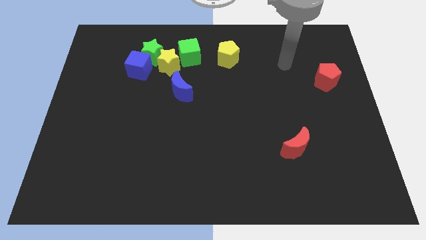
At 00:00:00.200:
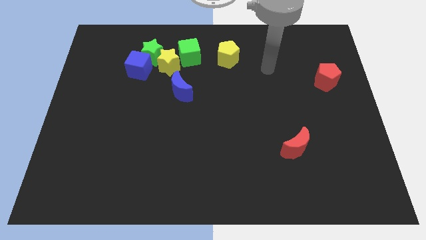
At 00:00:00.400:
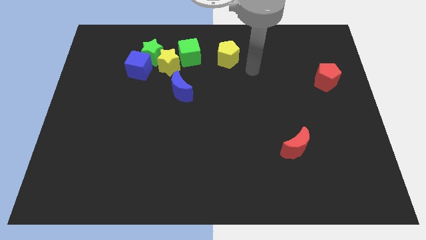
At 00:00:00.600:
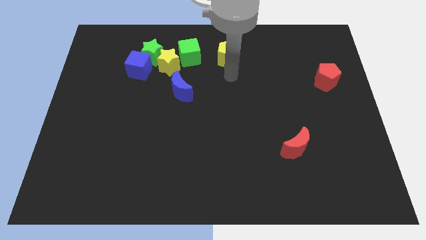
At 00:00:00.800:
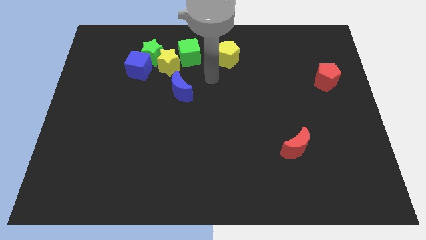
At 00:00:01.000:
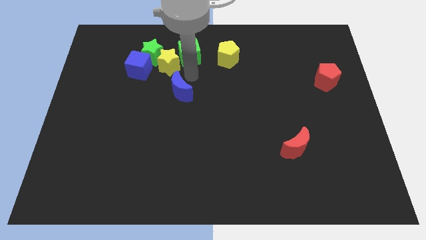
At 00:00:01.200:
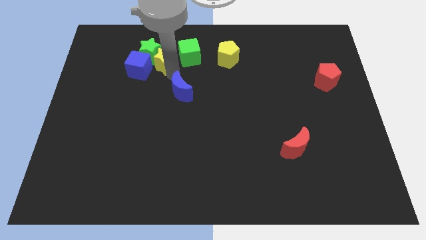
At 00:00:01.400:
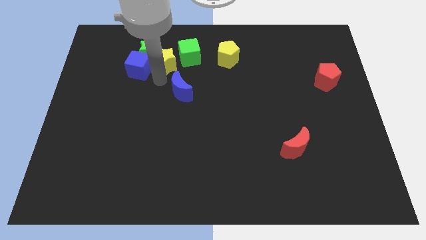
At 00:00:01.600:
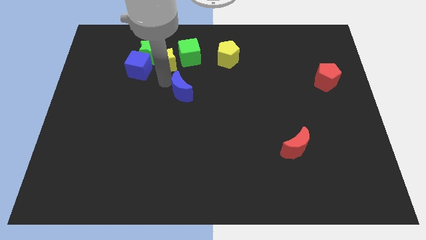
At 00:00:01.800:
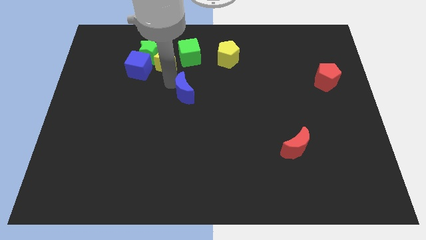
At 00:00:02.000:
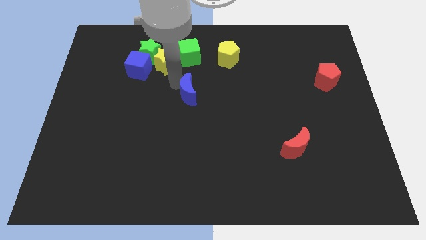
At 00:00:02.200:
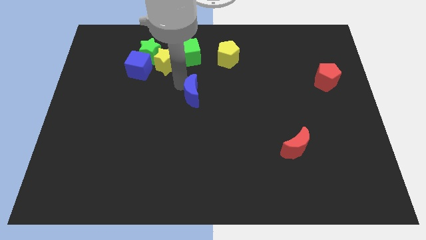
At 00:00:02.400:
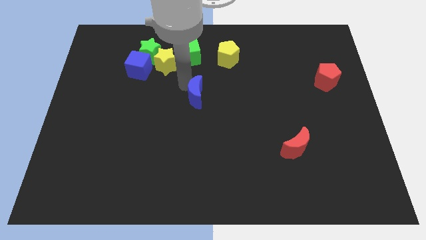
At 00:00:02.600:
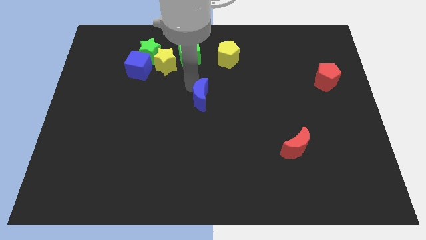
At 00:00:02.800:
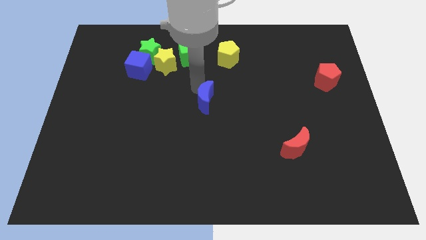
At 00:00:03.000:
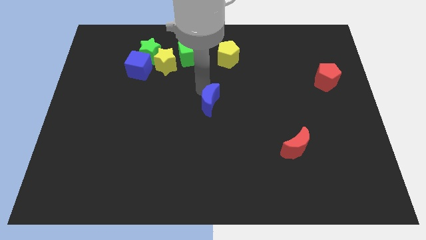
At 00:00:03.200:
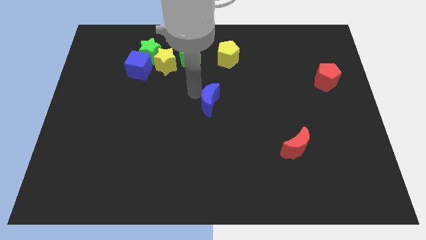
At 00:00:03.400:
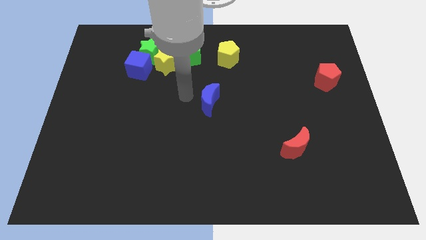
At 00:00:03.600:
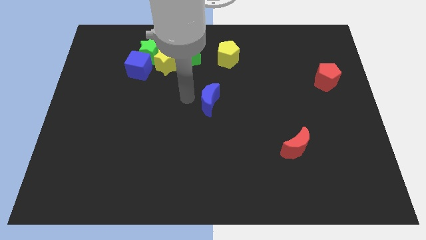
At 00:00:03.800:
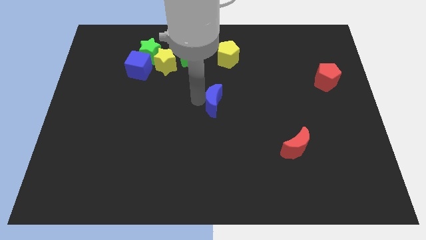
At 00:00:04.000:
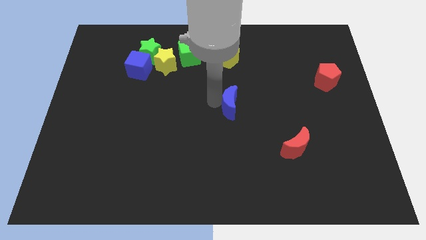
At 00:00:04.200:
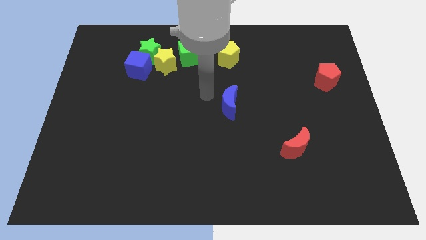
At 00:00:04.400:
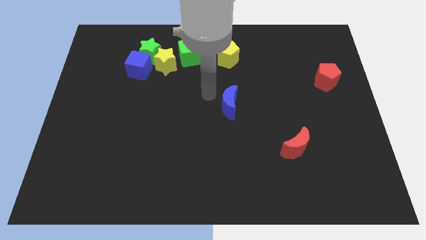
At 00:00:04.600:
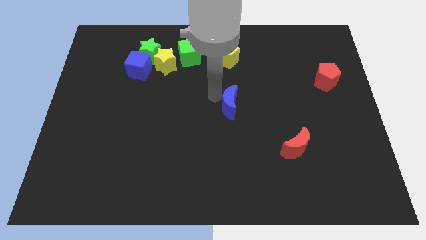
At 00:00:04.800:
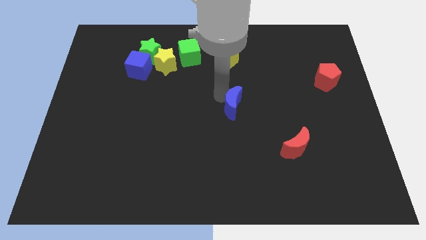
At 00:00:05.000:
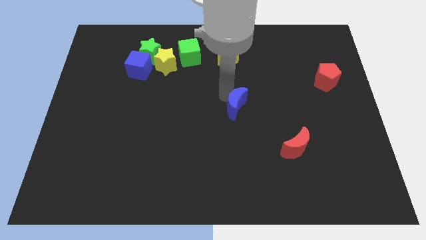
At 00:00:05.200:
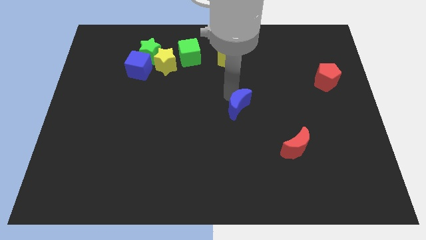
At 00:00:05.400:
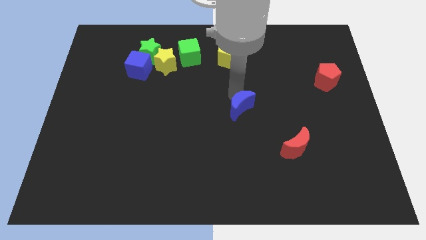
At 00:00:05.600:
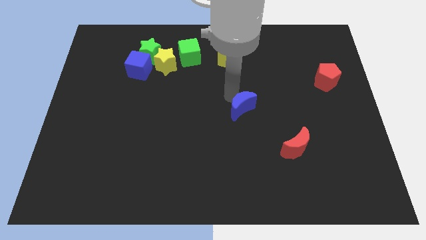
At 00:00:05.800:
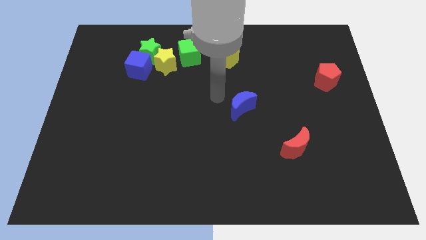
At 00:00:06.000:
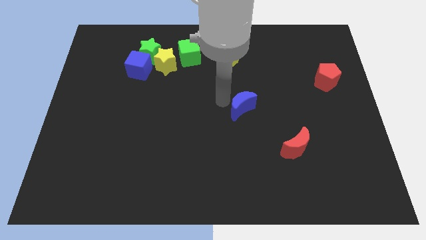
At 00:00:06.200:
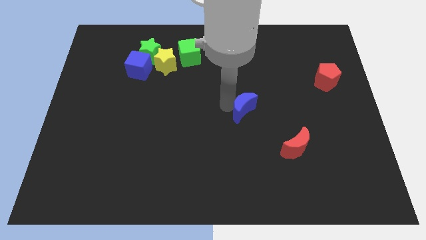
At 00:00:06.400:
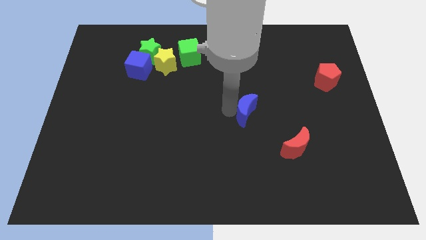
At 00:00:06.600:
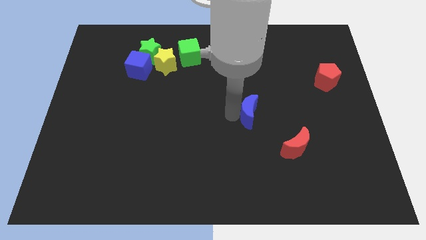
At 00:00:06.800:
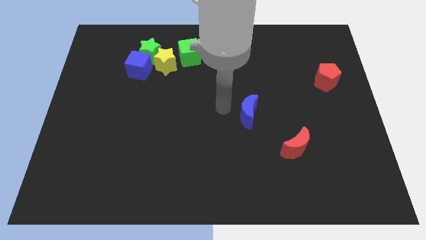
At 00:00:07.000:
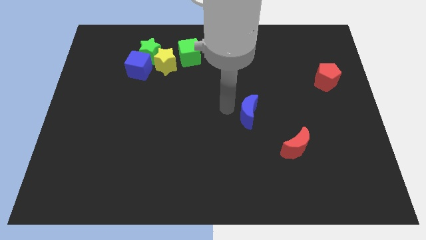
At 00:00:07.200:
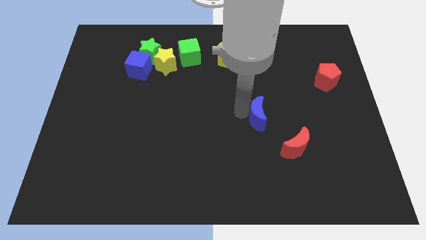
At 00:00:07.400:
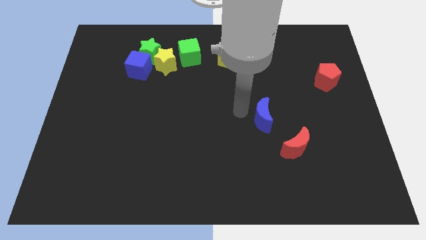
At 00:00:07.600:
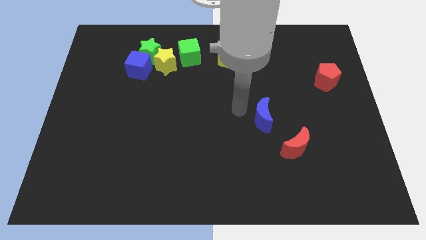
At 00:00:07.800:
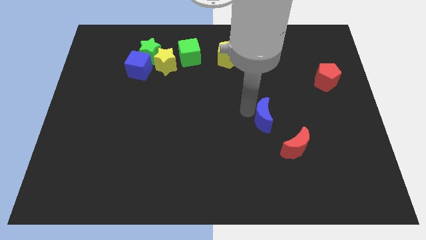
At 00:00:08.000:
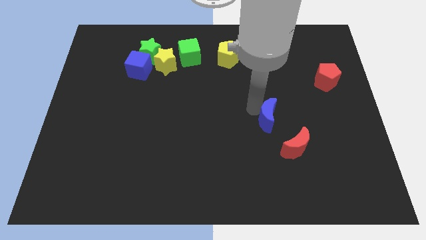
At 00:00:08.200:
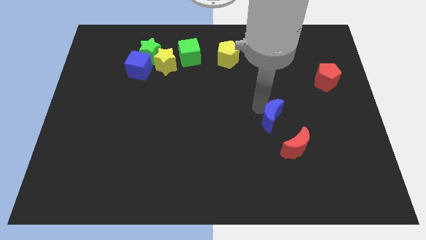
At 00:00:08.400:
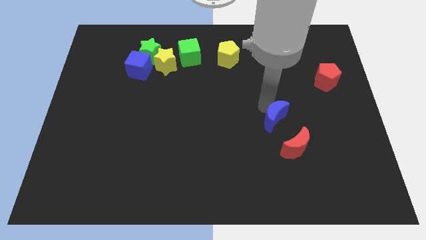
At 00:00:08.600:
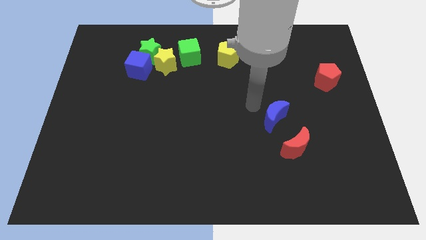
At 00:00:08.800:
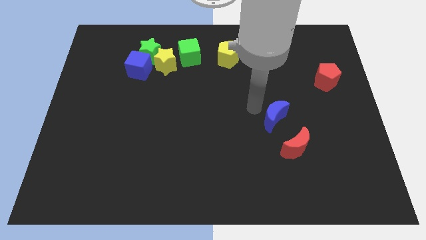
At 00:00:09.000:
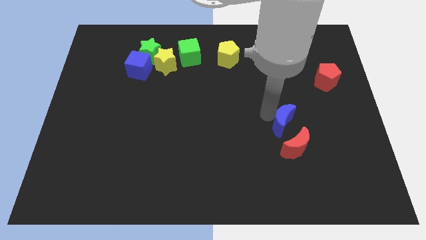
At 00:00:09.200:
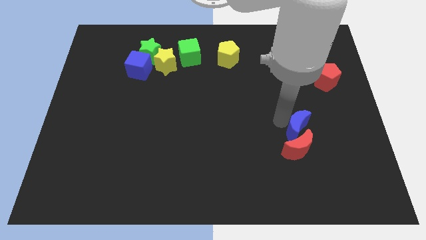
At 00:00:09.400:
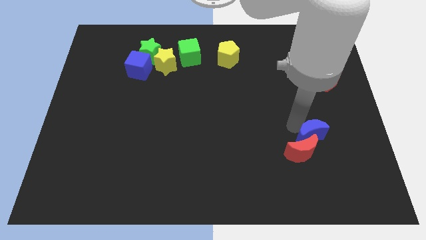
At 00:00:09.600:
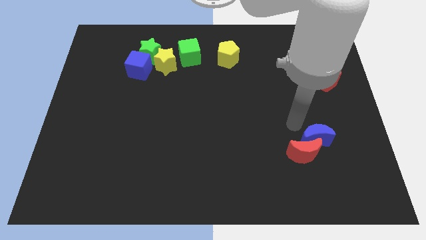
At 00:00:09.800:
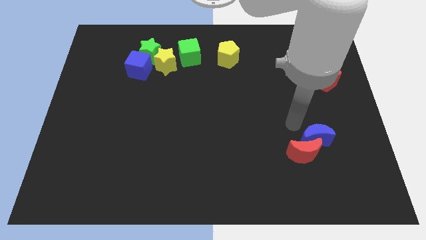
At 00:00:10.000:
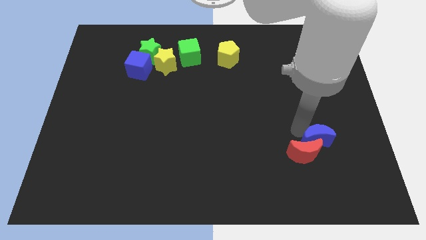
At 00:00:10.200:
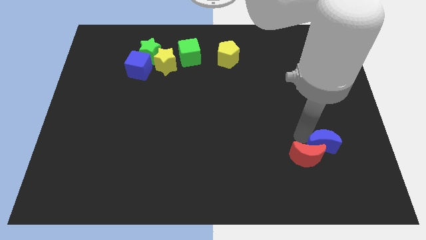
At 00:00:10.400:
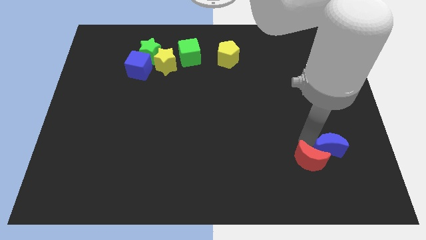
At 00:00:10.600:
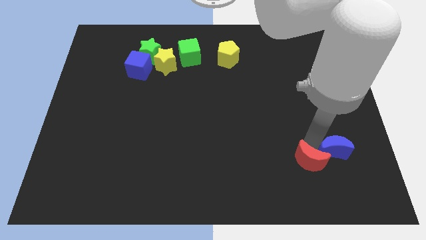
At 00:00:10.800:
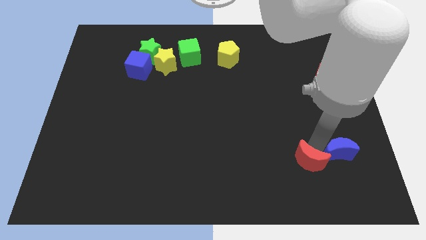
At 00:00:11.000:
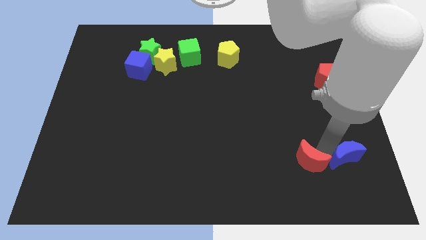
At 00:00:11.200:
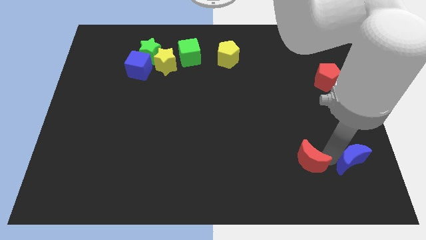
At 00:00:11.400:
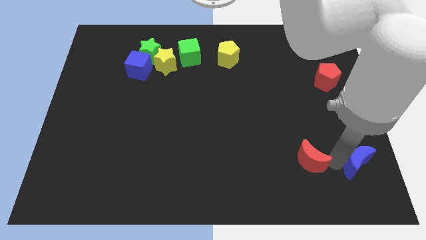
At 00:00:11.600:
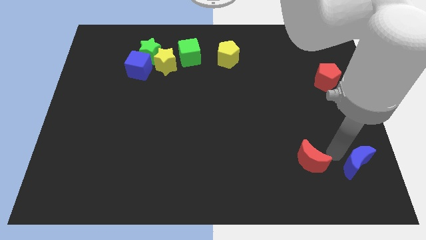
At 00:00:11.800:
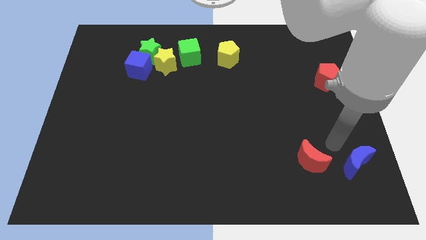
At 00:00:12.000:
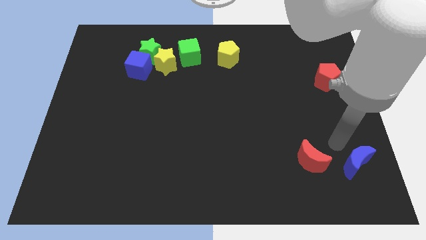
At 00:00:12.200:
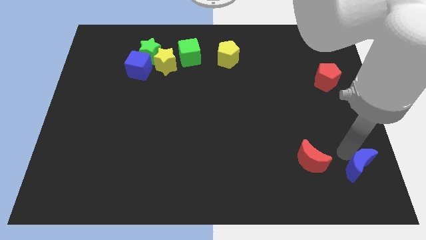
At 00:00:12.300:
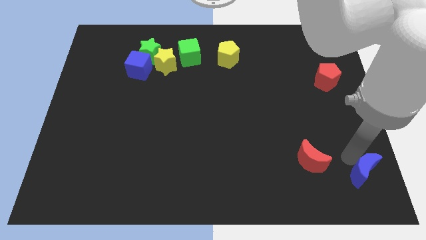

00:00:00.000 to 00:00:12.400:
move the blue moon to the bottom right

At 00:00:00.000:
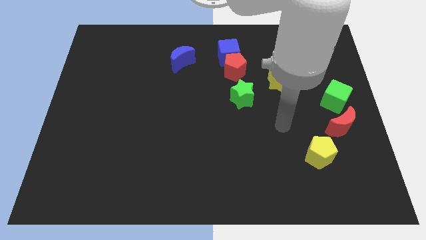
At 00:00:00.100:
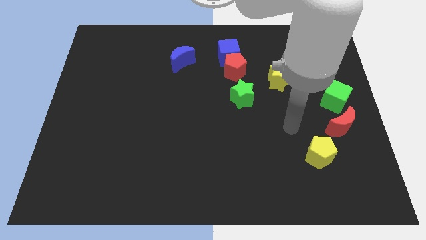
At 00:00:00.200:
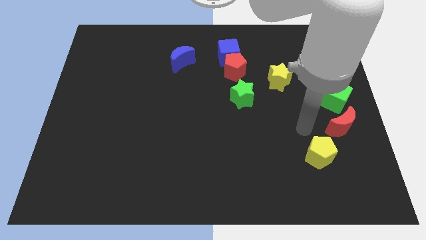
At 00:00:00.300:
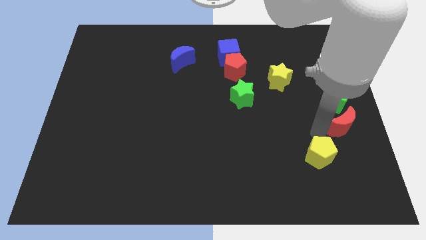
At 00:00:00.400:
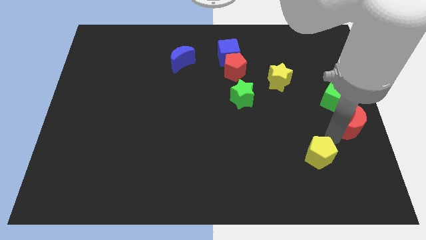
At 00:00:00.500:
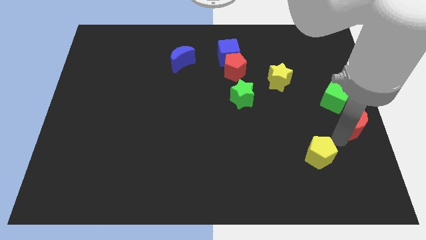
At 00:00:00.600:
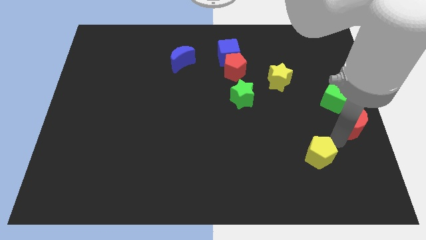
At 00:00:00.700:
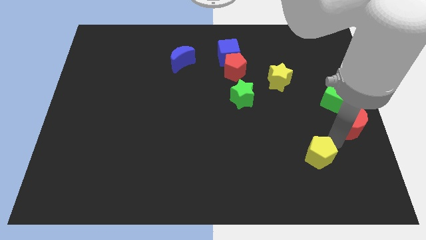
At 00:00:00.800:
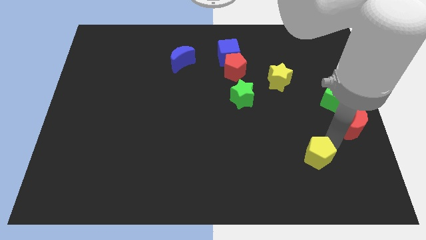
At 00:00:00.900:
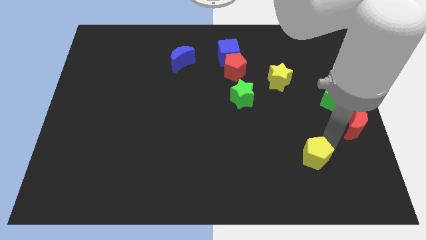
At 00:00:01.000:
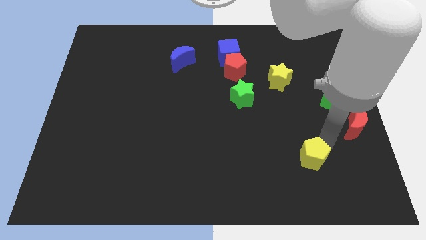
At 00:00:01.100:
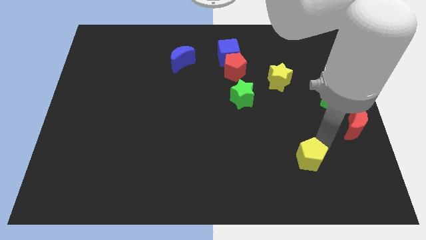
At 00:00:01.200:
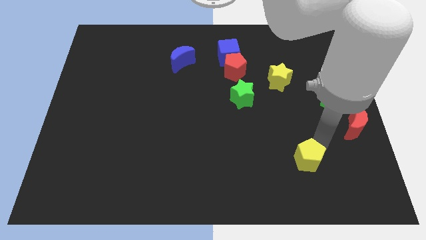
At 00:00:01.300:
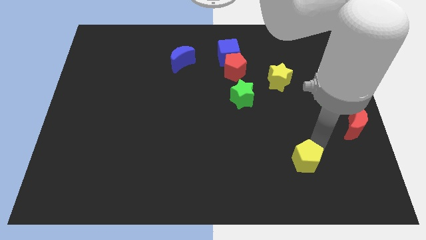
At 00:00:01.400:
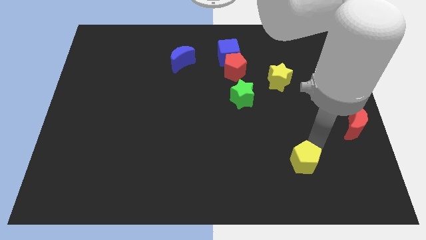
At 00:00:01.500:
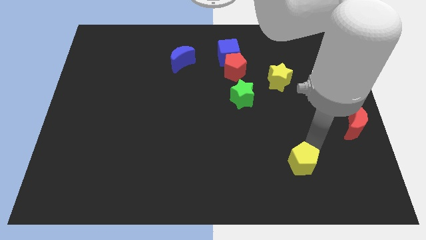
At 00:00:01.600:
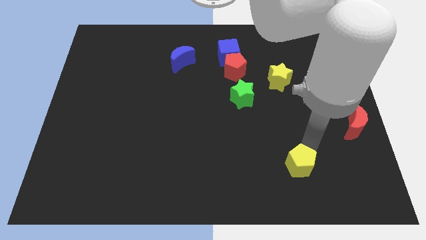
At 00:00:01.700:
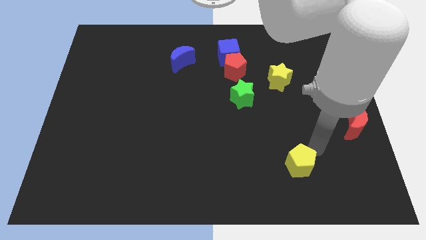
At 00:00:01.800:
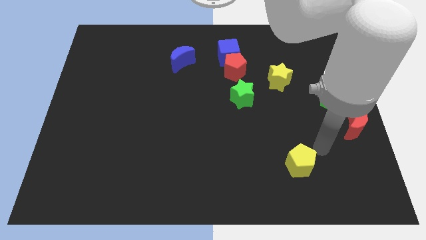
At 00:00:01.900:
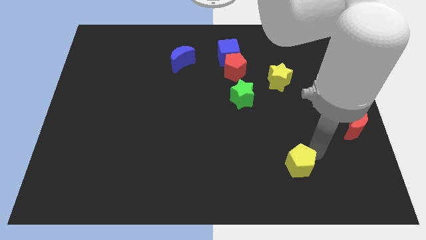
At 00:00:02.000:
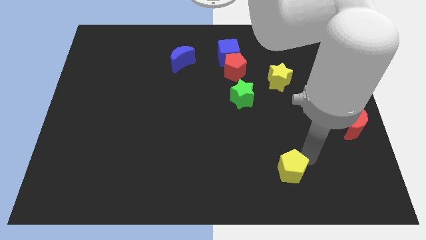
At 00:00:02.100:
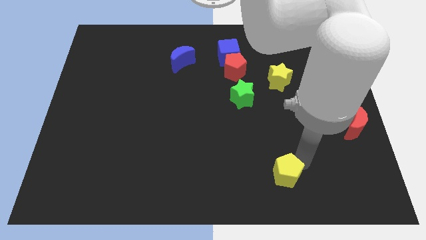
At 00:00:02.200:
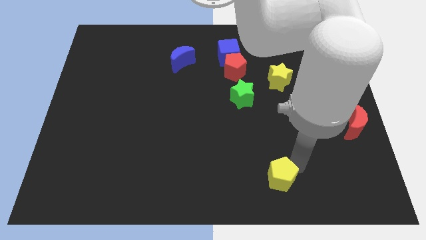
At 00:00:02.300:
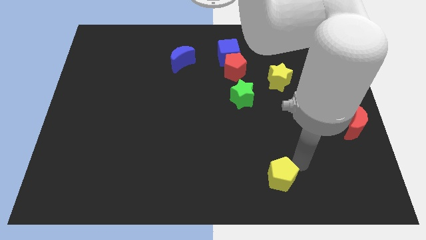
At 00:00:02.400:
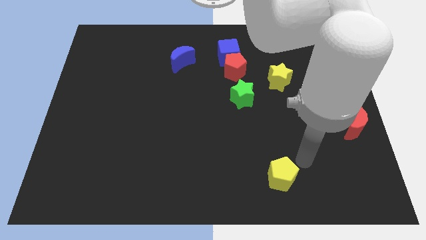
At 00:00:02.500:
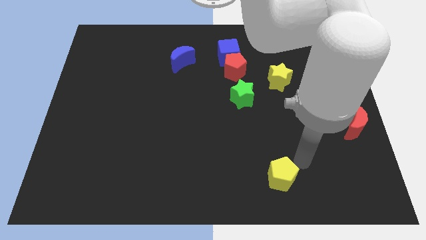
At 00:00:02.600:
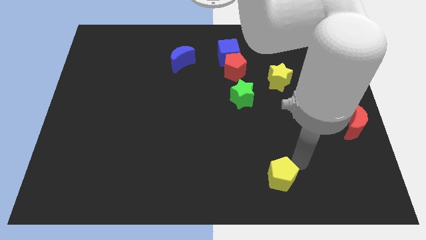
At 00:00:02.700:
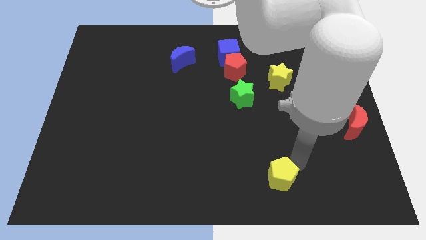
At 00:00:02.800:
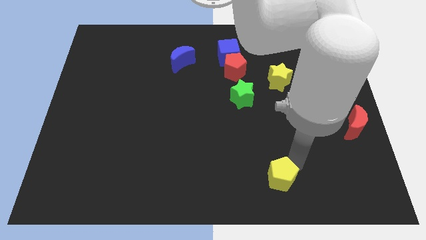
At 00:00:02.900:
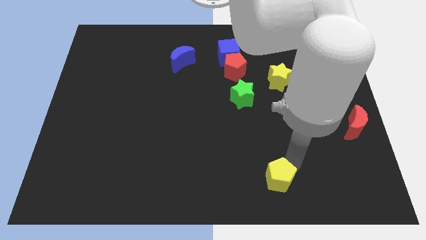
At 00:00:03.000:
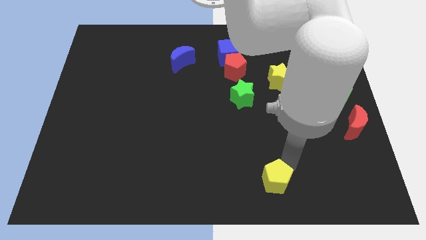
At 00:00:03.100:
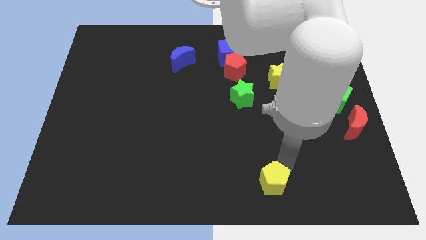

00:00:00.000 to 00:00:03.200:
move the yellow pentagon to the bottom
